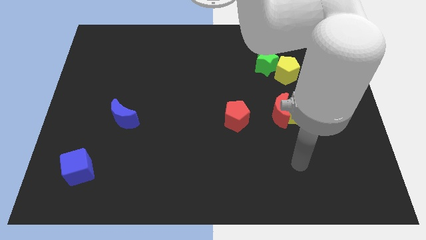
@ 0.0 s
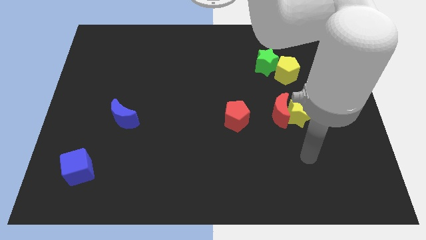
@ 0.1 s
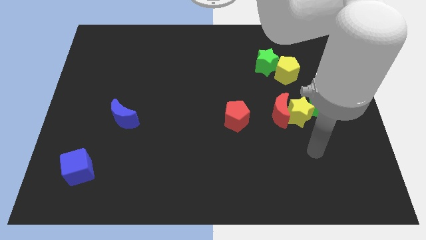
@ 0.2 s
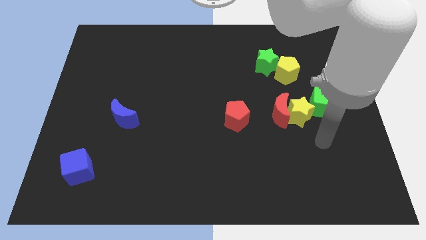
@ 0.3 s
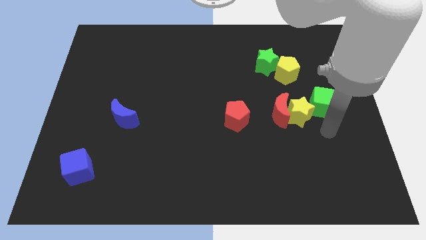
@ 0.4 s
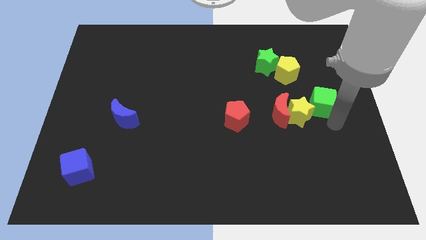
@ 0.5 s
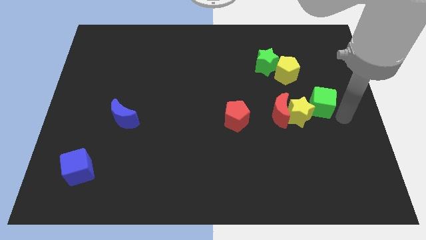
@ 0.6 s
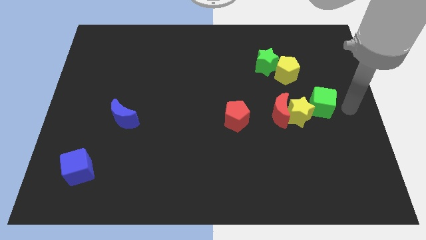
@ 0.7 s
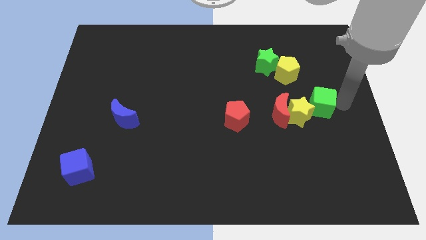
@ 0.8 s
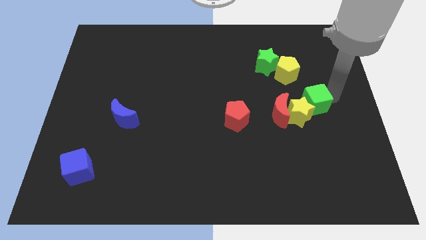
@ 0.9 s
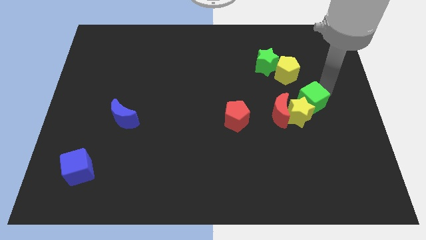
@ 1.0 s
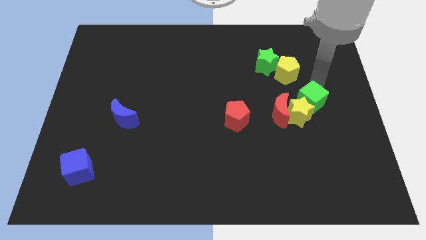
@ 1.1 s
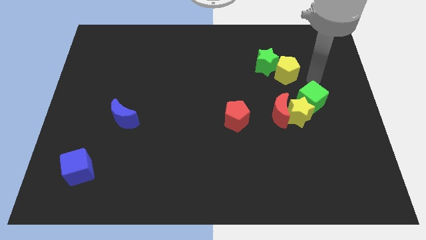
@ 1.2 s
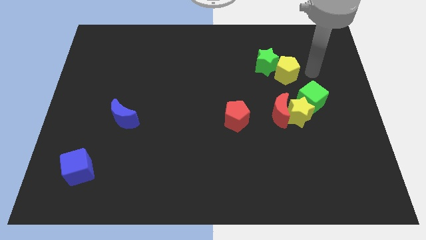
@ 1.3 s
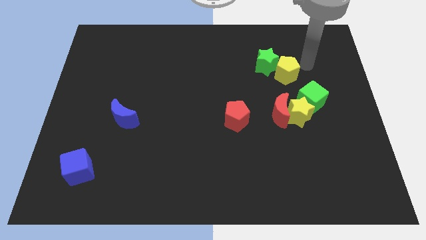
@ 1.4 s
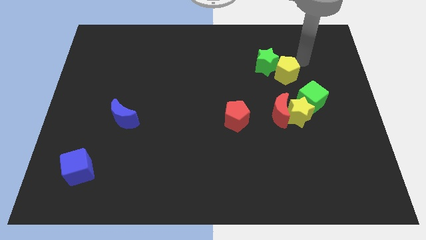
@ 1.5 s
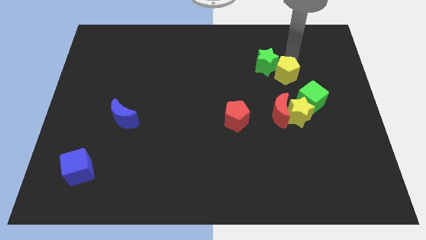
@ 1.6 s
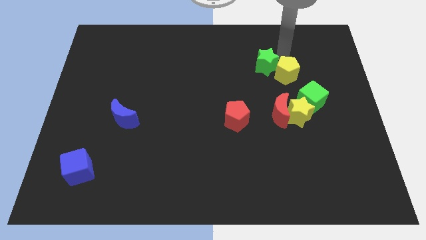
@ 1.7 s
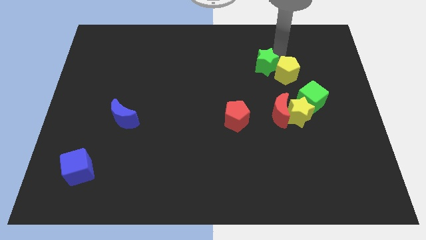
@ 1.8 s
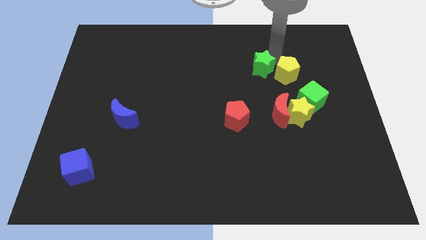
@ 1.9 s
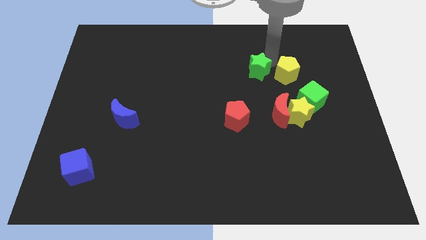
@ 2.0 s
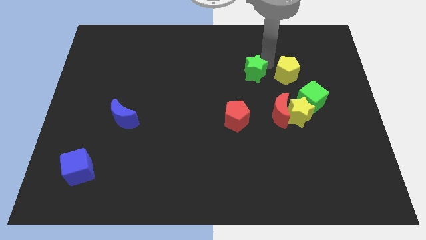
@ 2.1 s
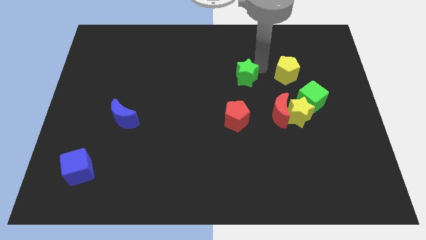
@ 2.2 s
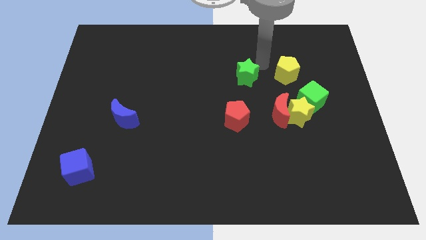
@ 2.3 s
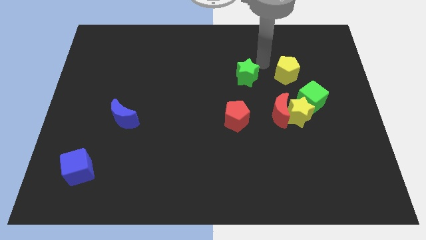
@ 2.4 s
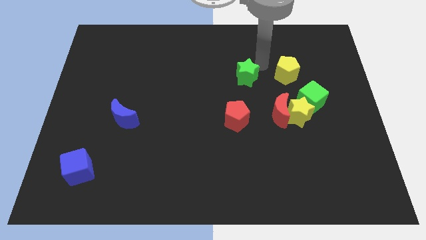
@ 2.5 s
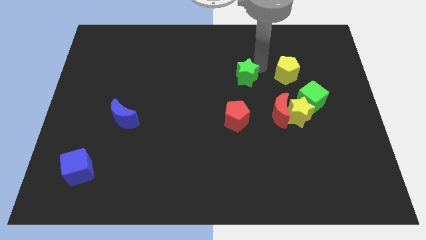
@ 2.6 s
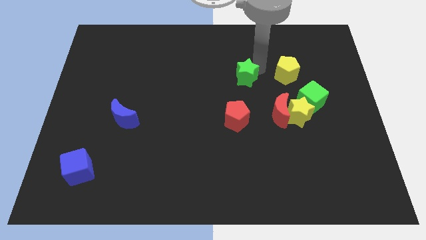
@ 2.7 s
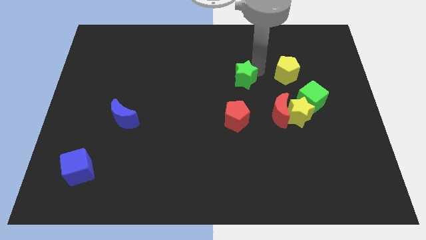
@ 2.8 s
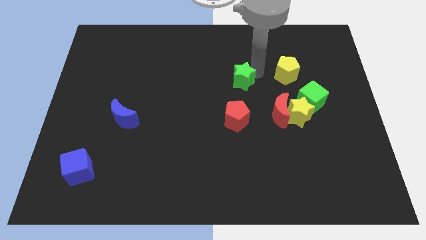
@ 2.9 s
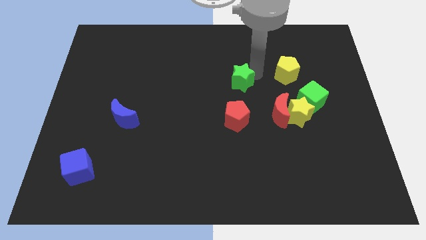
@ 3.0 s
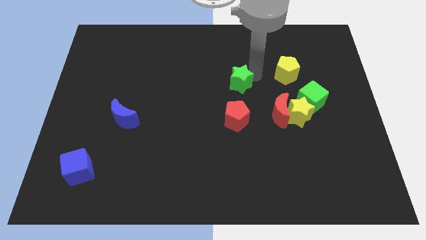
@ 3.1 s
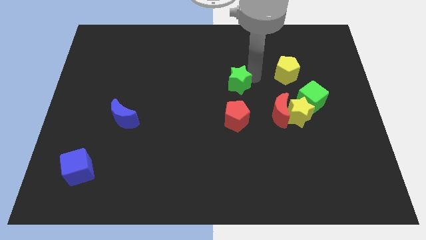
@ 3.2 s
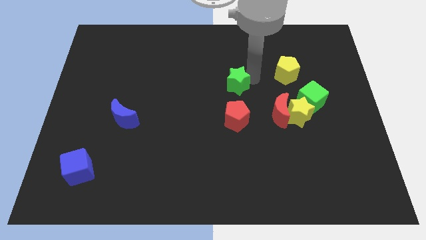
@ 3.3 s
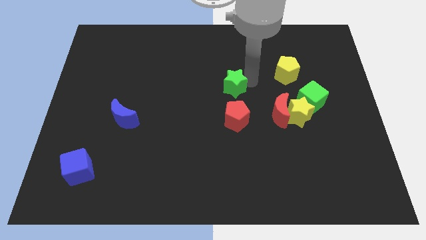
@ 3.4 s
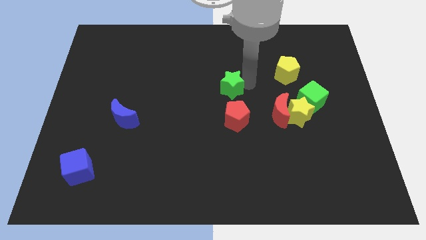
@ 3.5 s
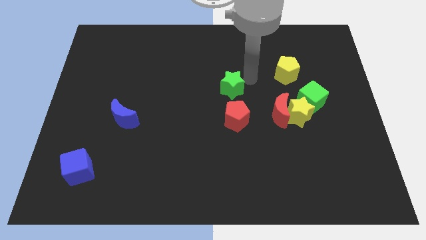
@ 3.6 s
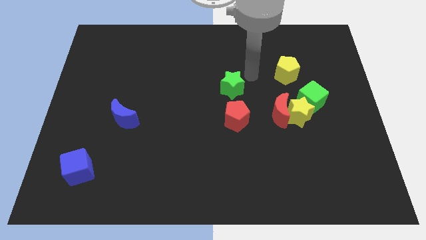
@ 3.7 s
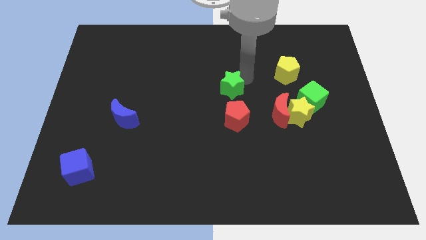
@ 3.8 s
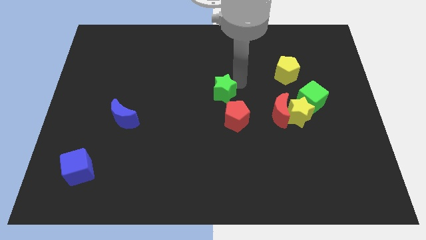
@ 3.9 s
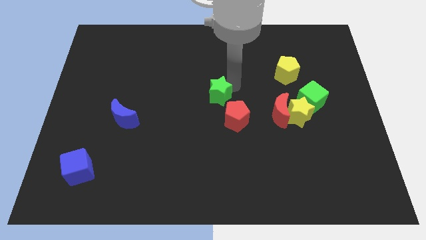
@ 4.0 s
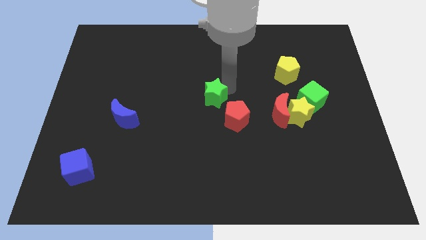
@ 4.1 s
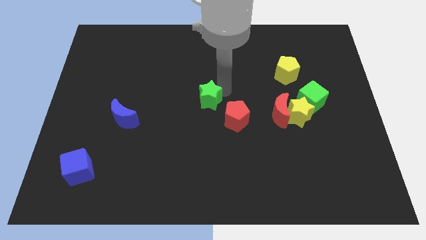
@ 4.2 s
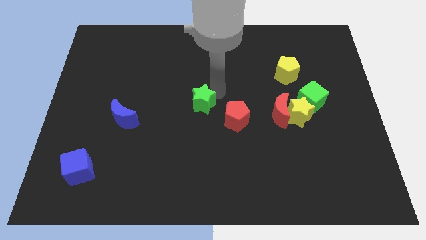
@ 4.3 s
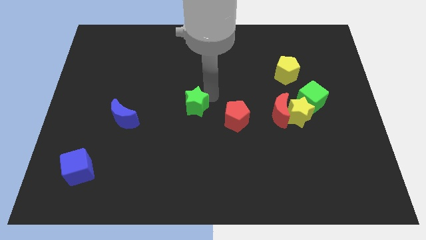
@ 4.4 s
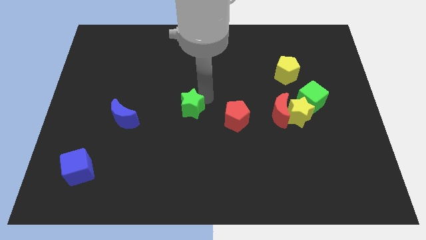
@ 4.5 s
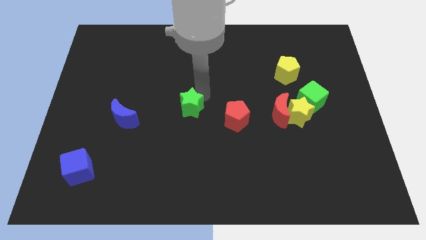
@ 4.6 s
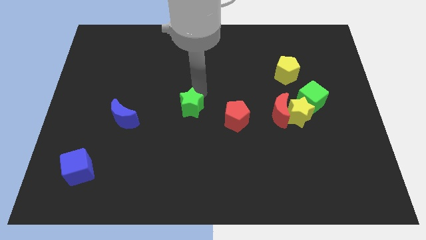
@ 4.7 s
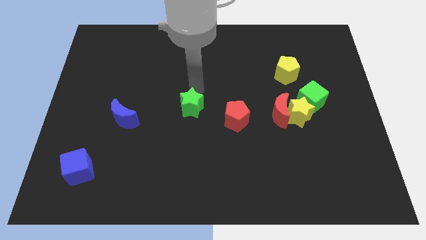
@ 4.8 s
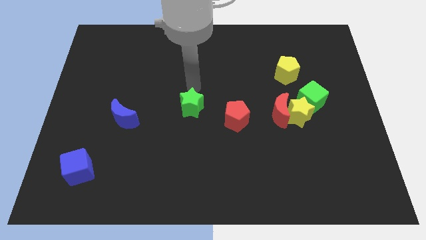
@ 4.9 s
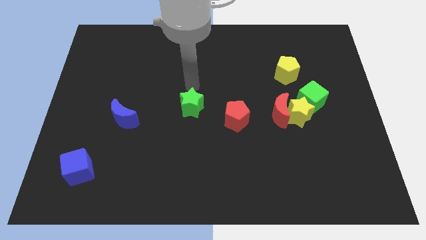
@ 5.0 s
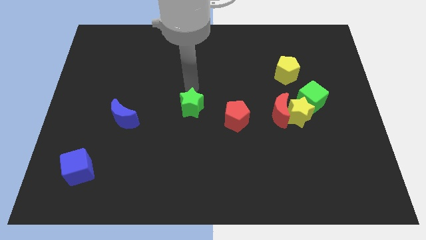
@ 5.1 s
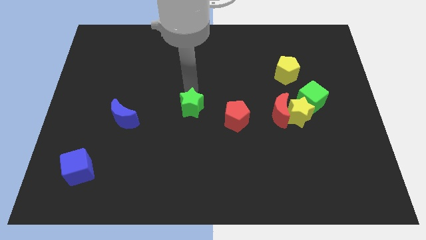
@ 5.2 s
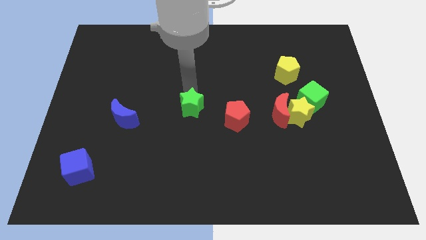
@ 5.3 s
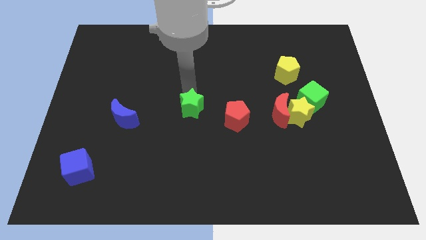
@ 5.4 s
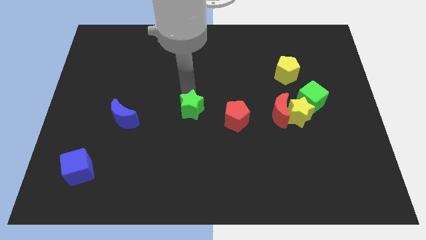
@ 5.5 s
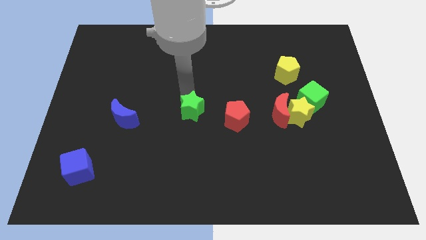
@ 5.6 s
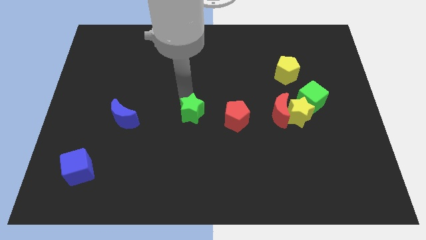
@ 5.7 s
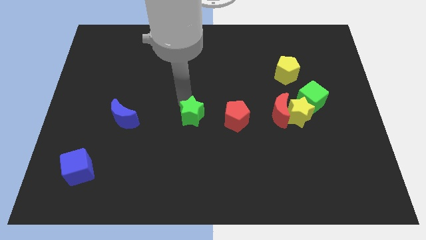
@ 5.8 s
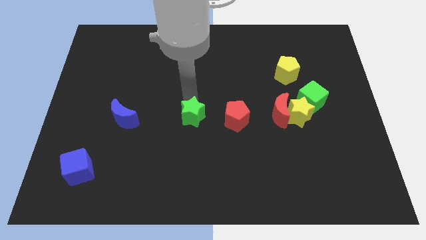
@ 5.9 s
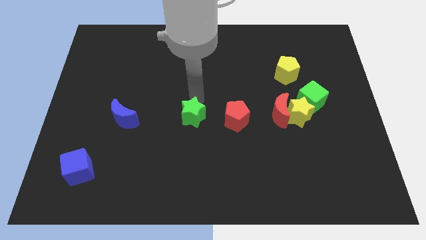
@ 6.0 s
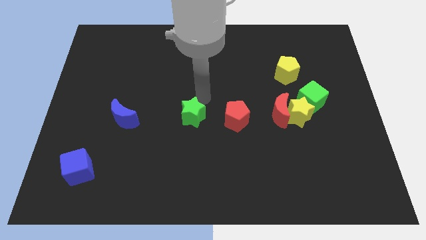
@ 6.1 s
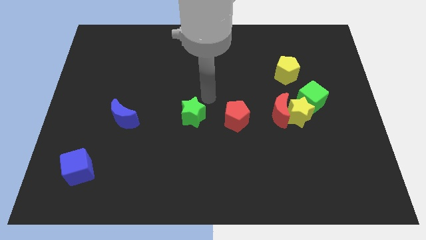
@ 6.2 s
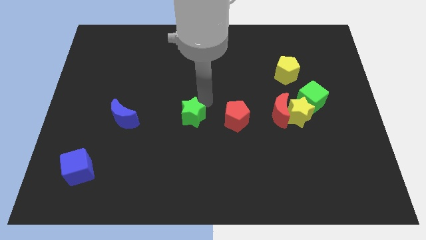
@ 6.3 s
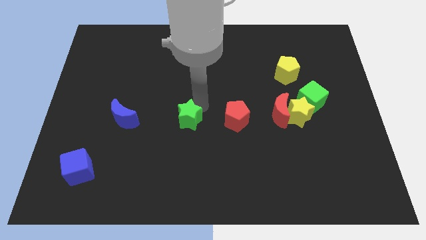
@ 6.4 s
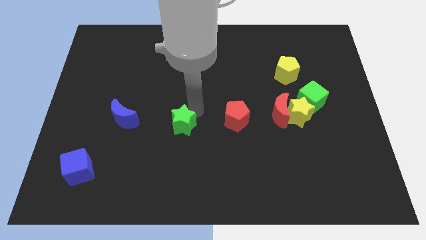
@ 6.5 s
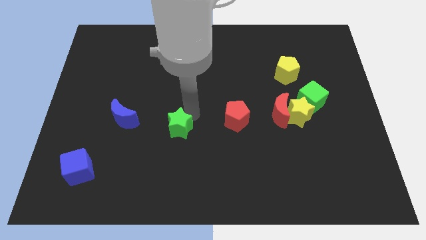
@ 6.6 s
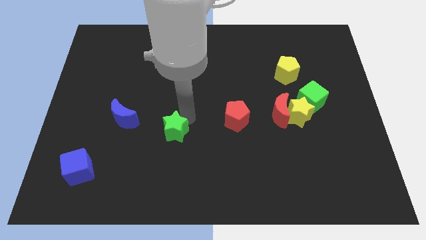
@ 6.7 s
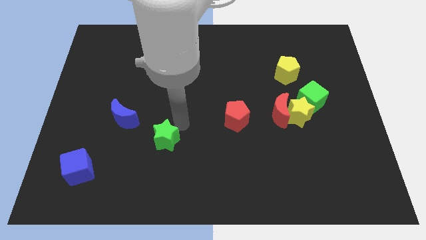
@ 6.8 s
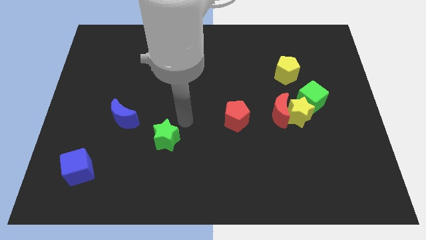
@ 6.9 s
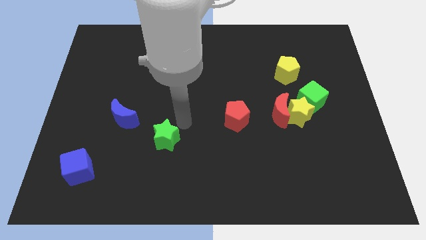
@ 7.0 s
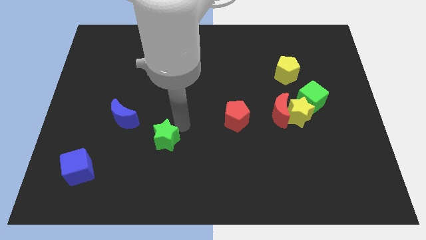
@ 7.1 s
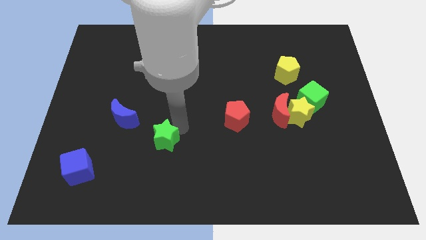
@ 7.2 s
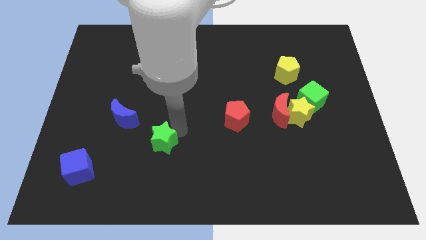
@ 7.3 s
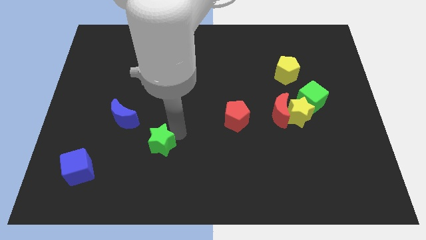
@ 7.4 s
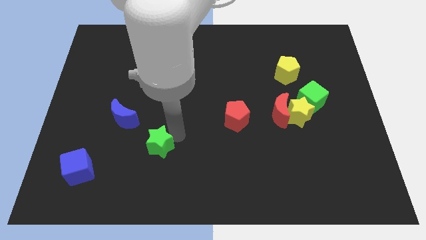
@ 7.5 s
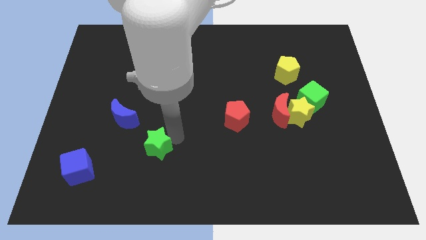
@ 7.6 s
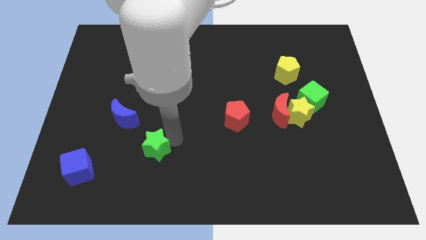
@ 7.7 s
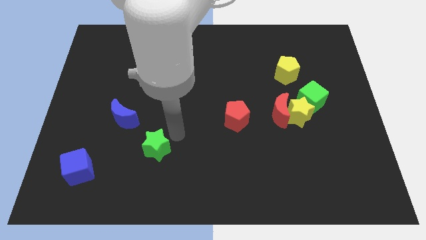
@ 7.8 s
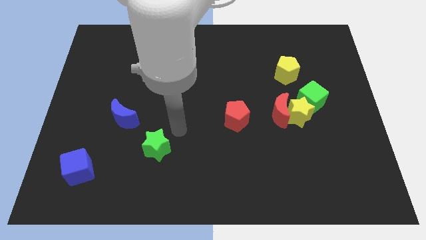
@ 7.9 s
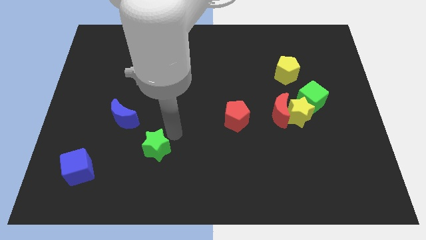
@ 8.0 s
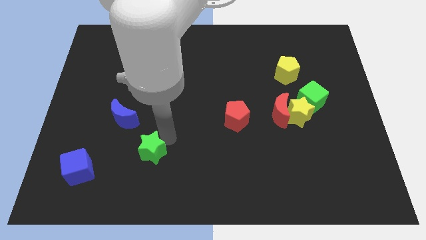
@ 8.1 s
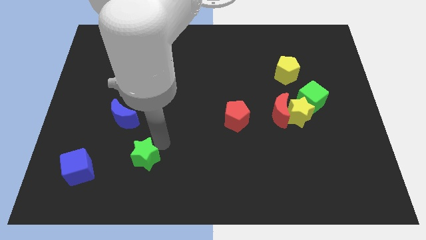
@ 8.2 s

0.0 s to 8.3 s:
move the green star just right of the blue cube
